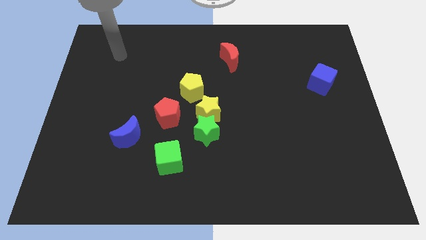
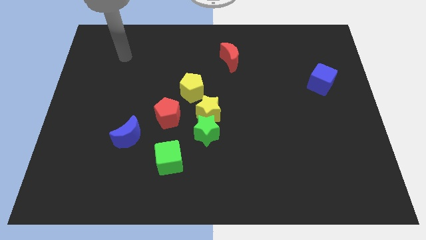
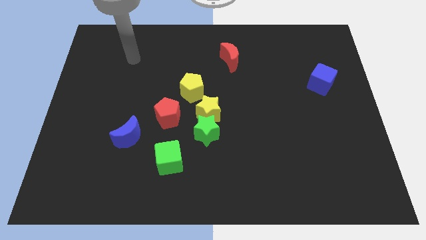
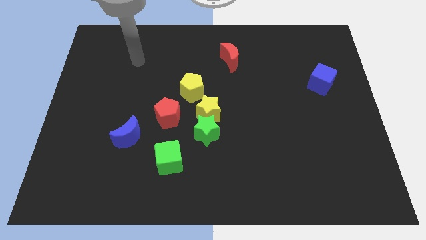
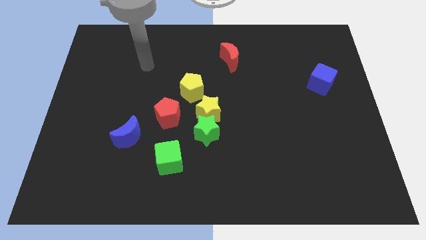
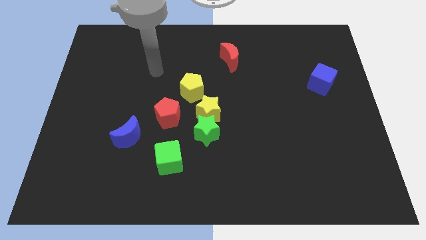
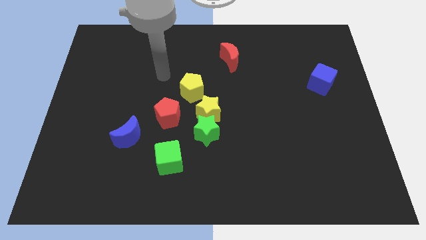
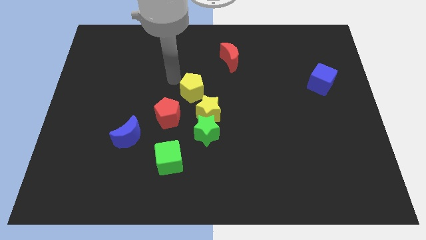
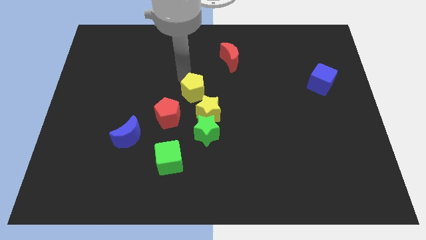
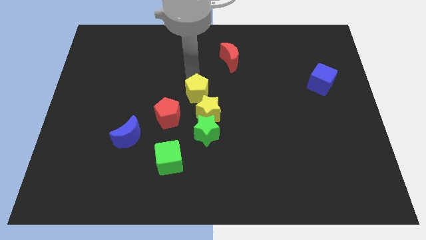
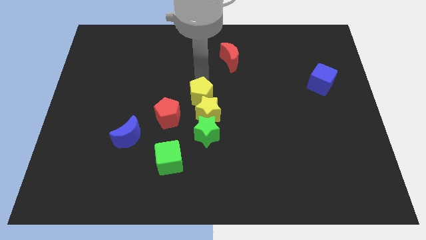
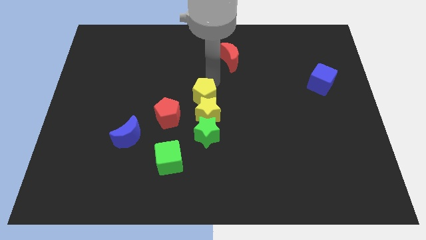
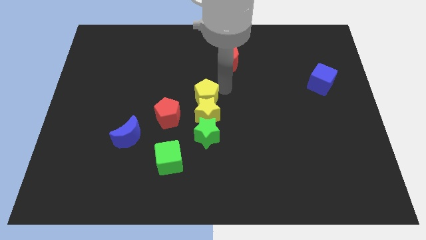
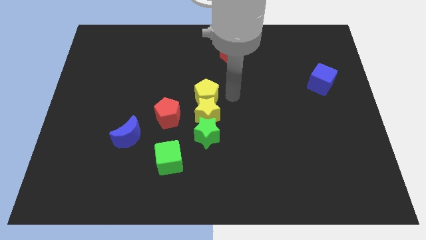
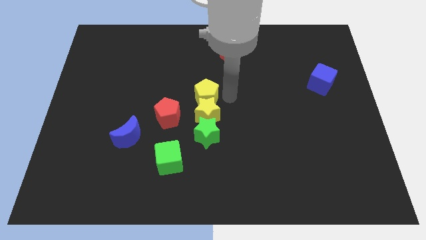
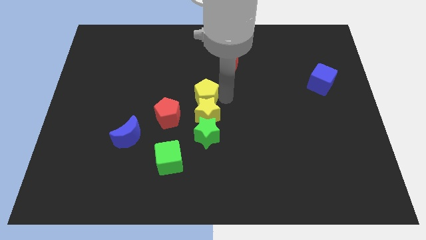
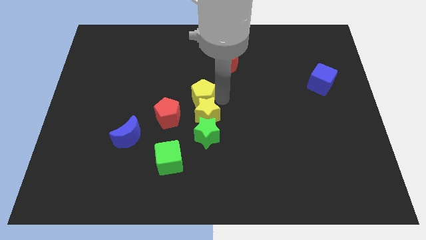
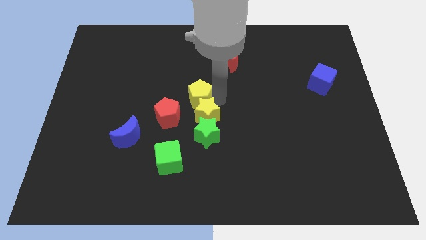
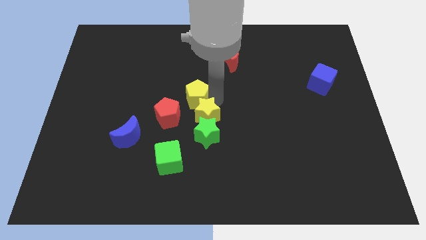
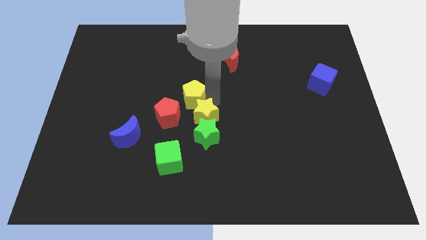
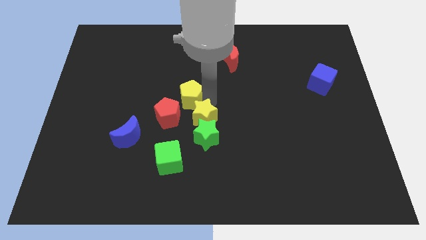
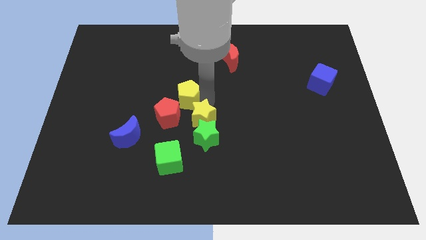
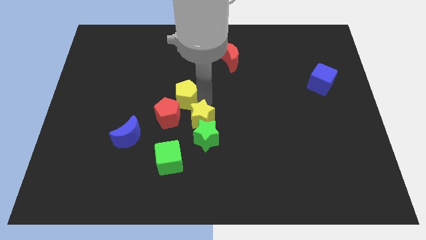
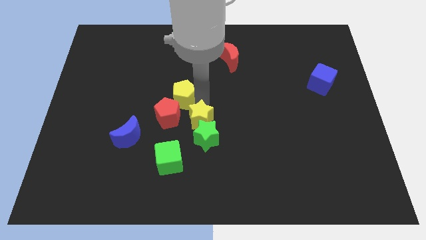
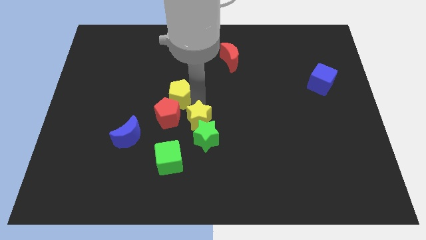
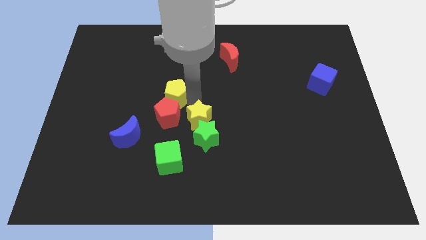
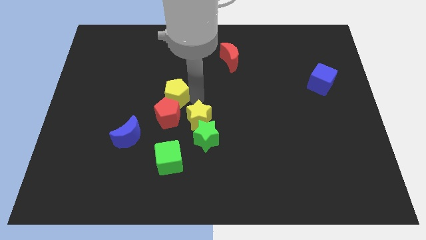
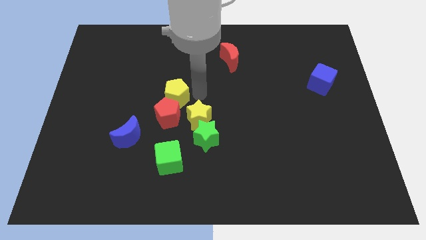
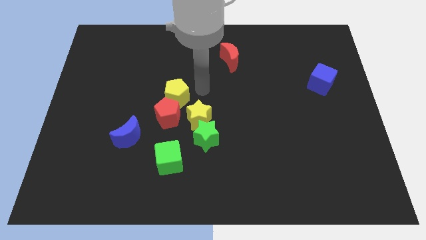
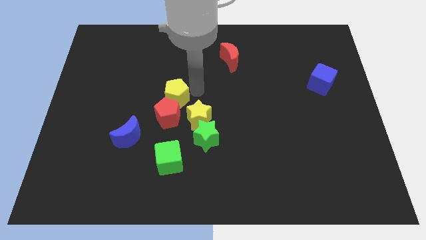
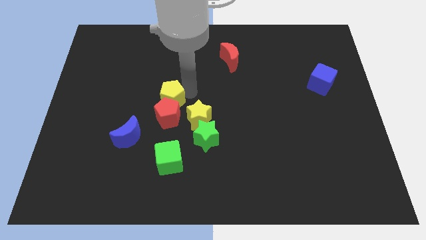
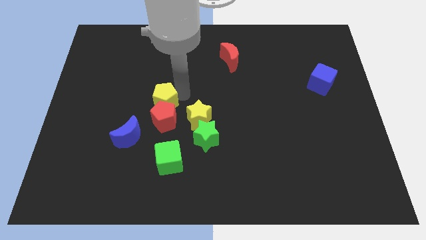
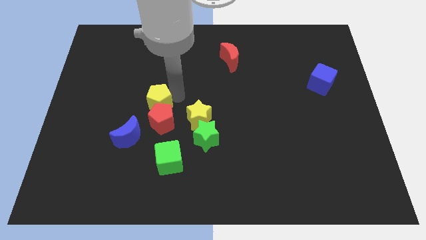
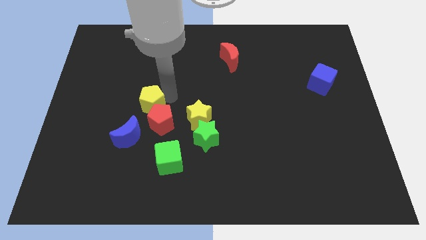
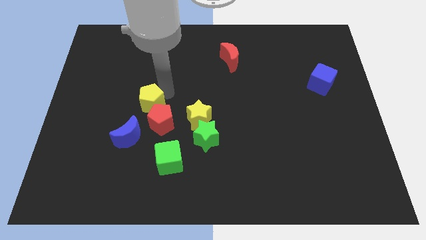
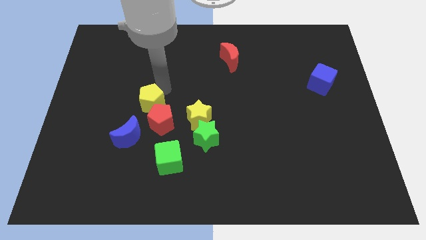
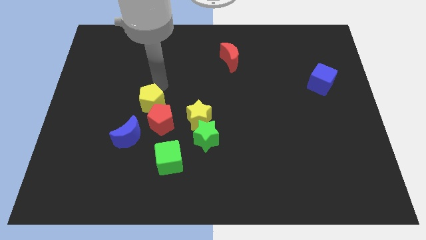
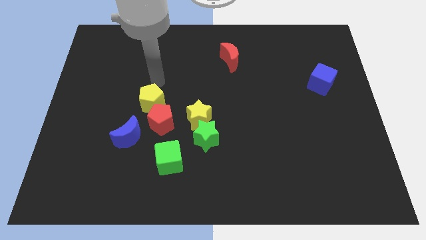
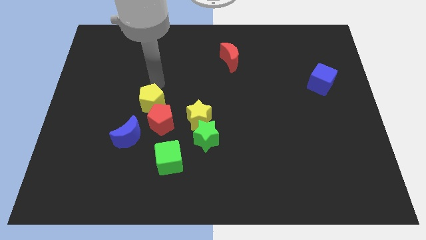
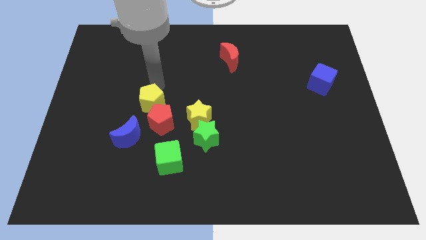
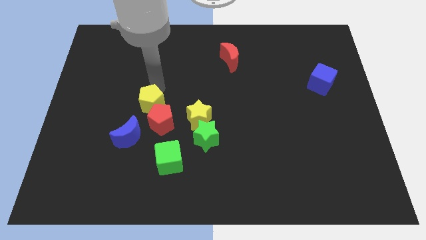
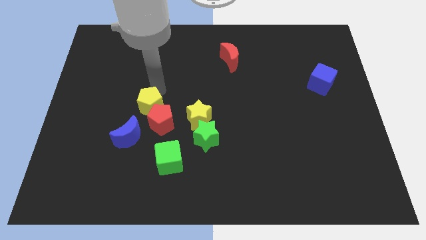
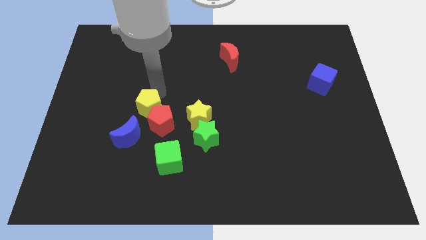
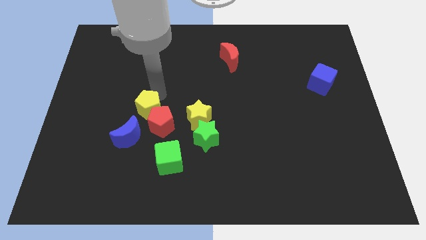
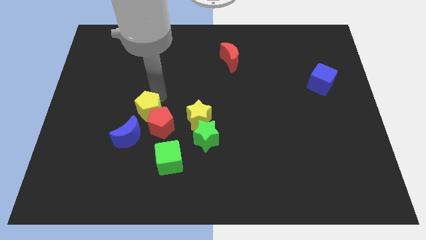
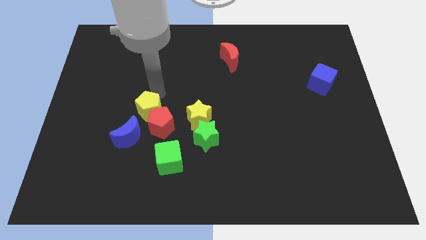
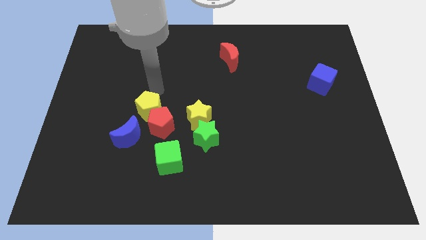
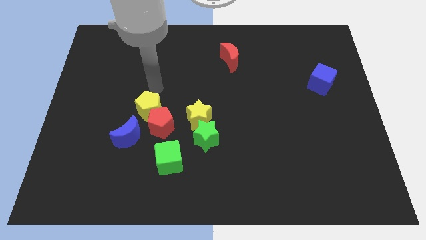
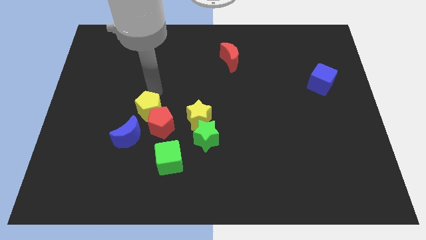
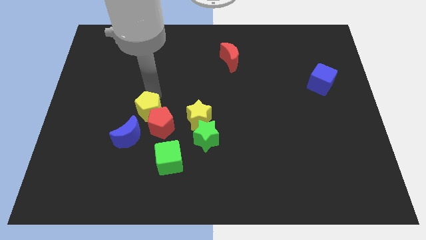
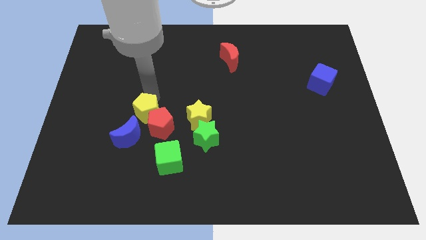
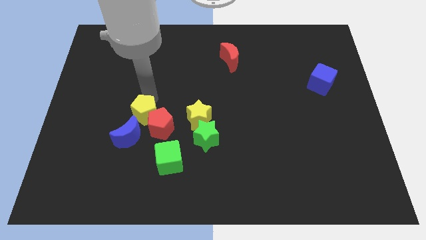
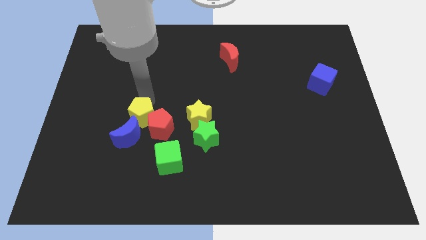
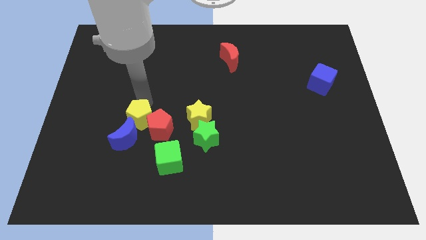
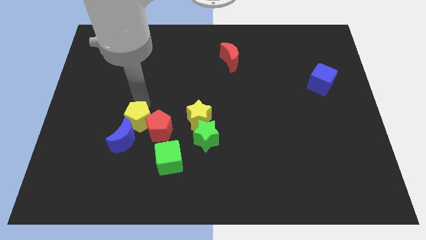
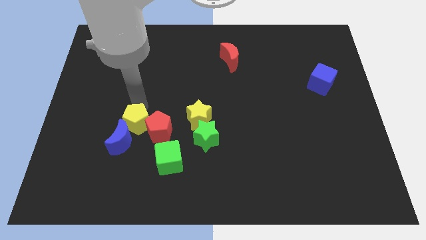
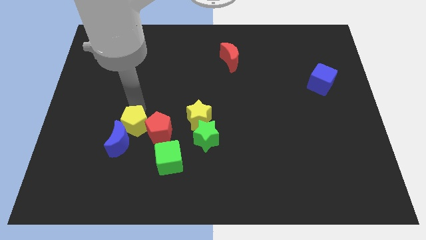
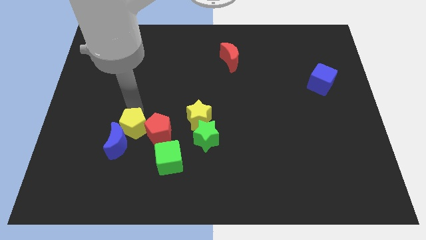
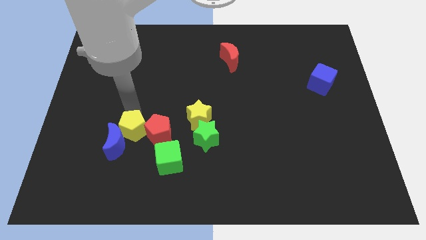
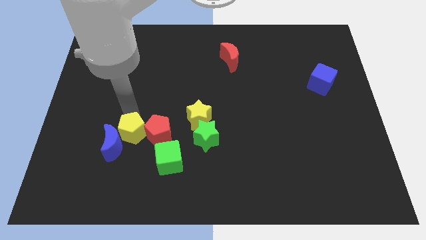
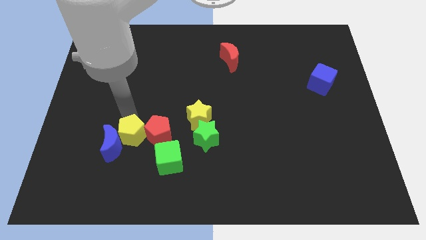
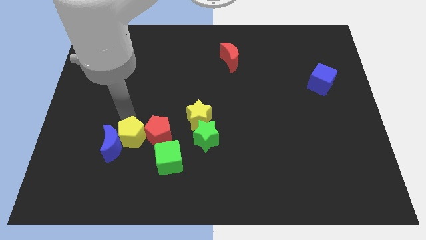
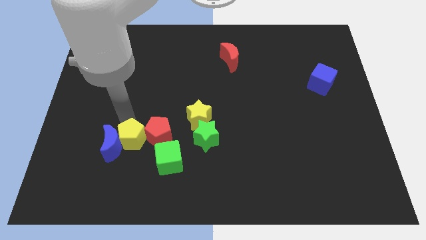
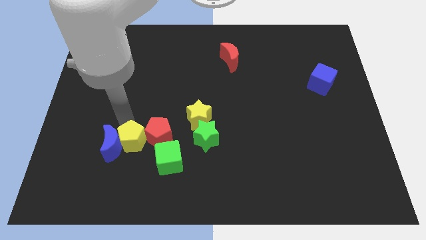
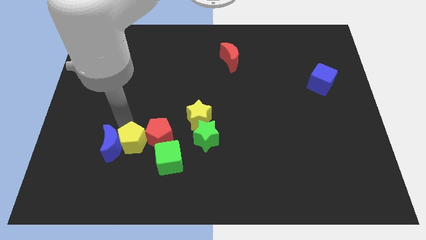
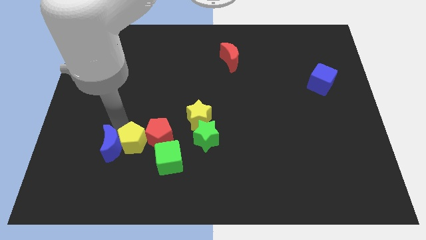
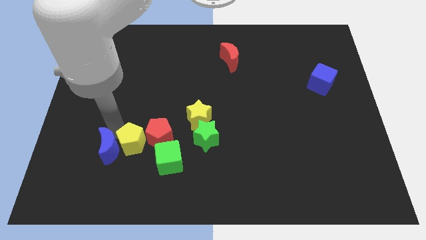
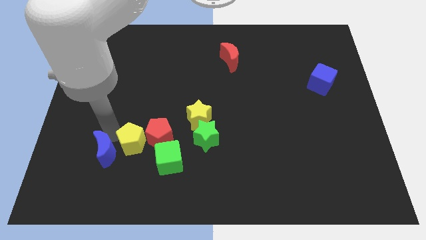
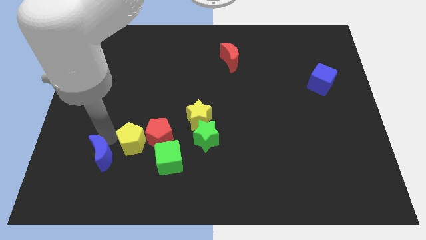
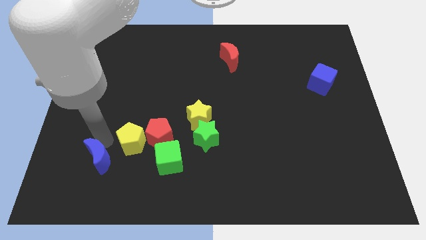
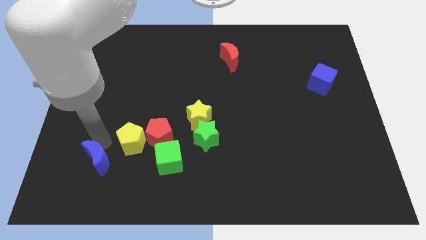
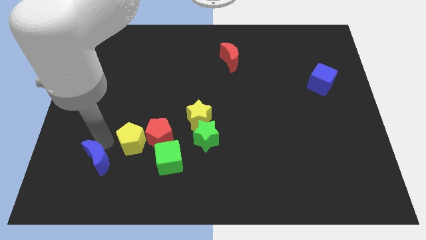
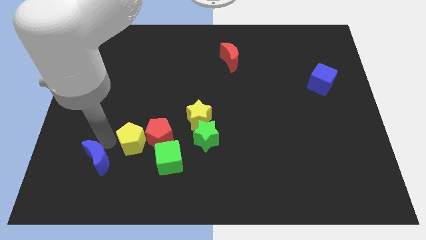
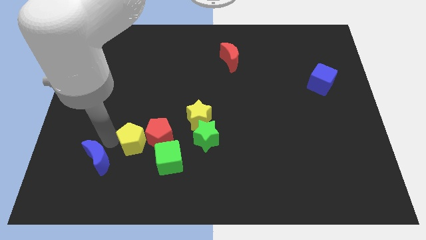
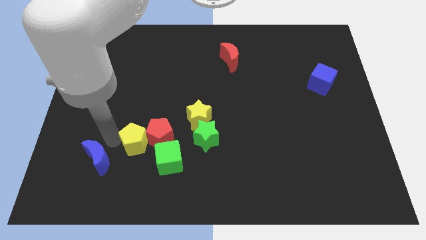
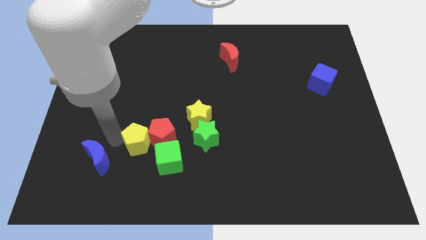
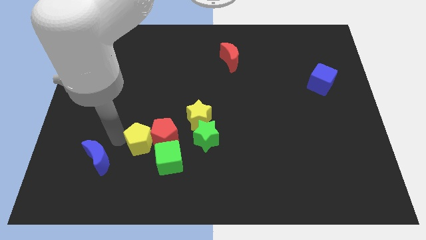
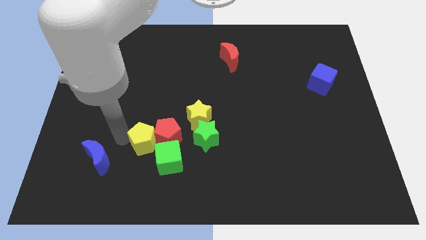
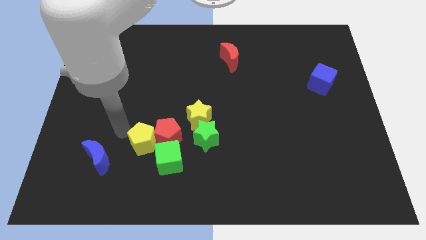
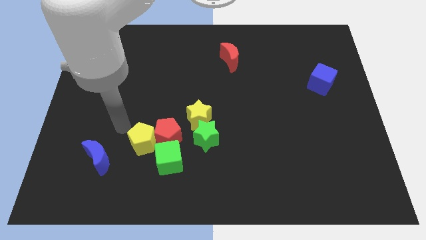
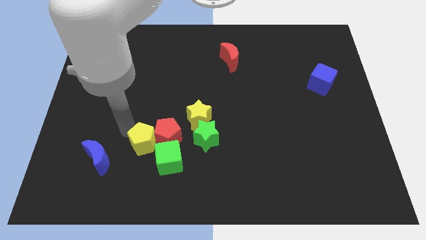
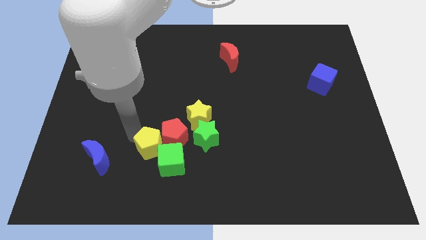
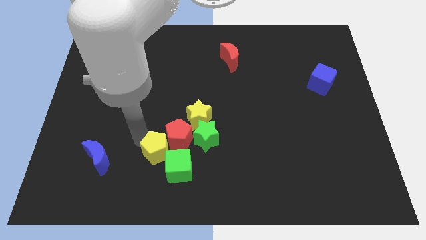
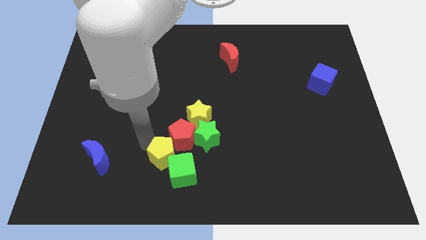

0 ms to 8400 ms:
push the yellow pentagon next to the green cube

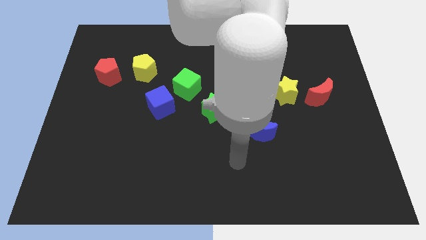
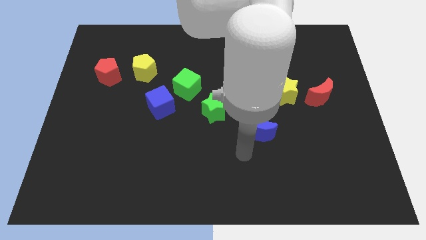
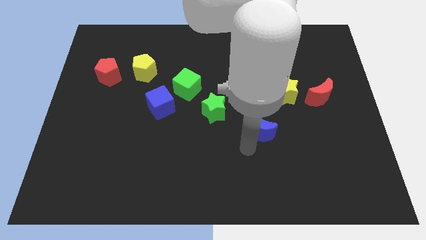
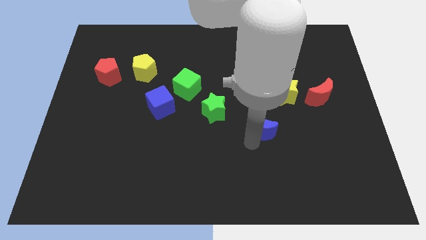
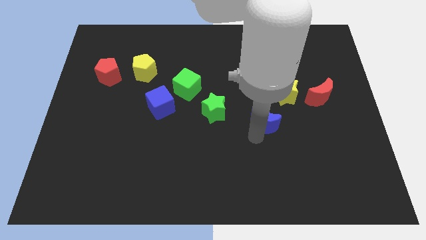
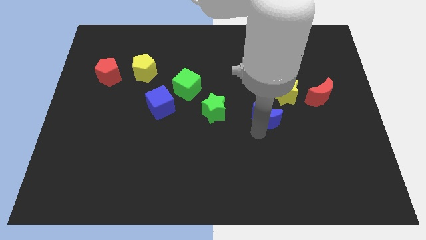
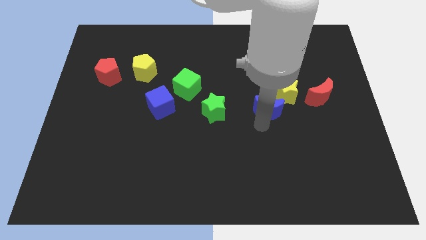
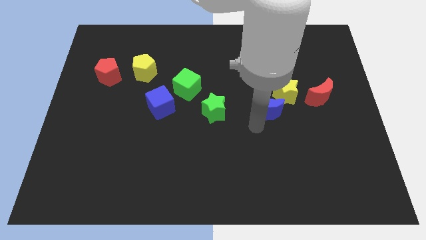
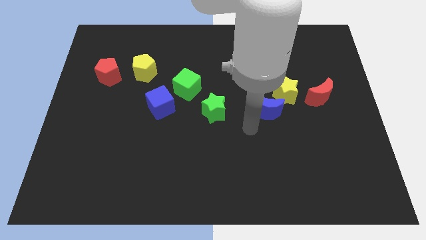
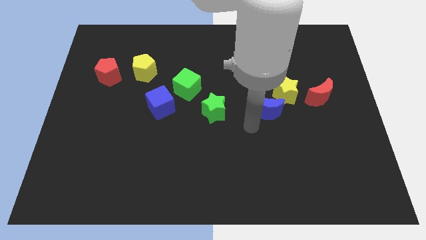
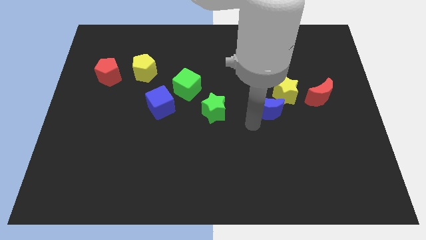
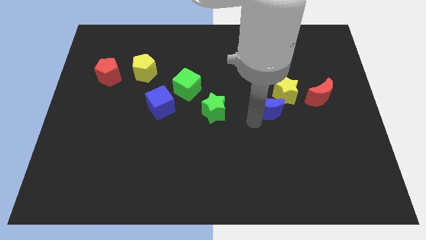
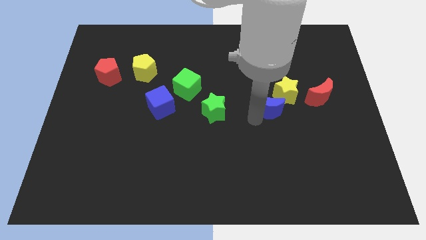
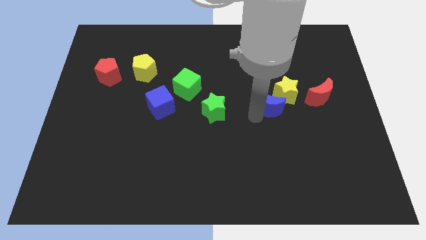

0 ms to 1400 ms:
put the blue moon to the yellow star
